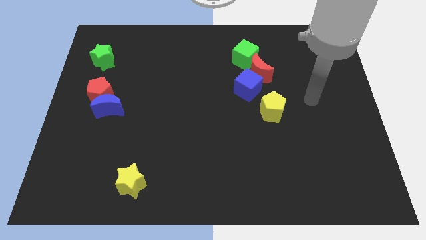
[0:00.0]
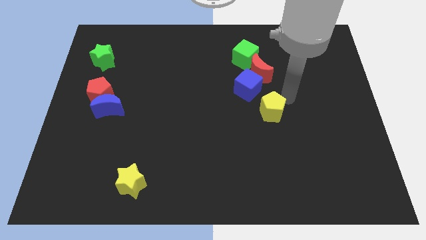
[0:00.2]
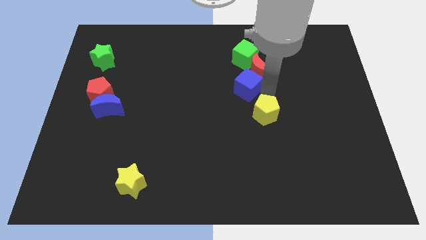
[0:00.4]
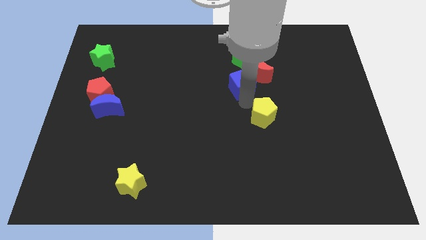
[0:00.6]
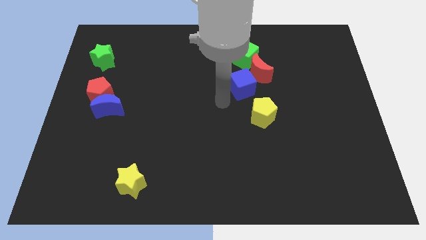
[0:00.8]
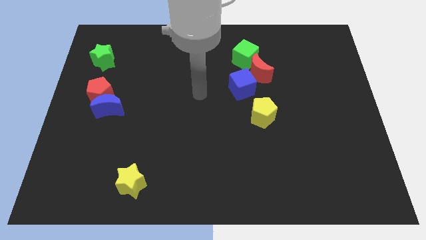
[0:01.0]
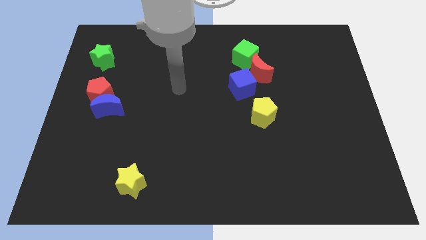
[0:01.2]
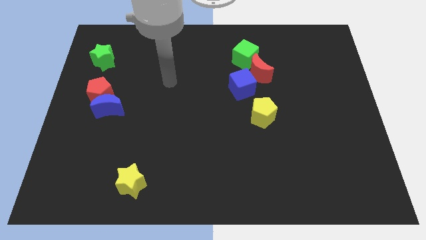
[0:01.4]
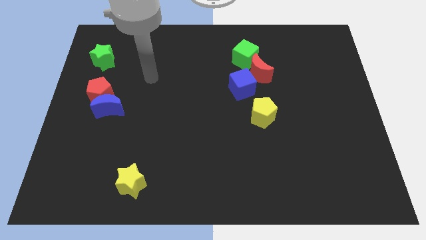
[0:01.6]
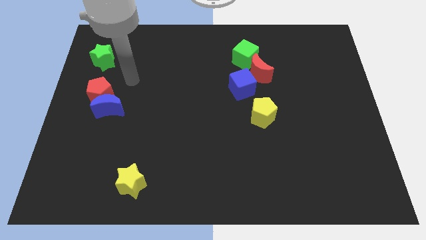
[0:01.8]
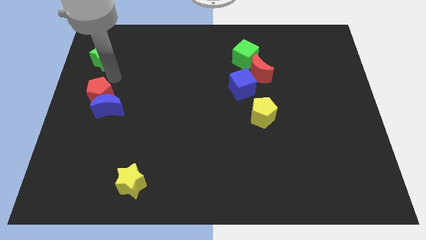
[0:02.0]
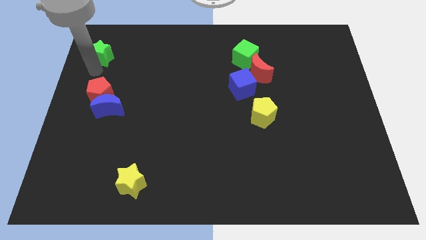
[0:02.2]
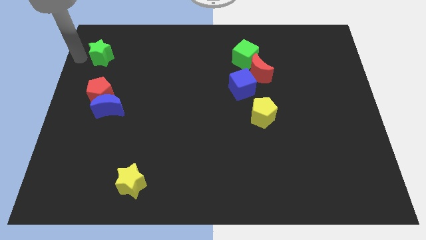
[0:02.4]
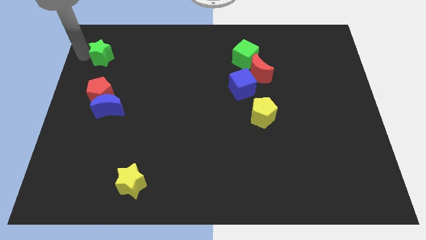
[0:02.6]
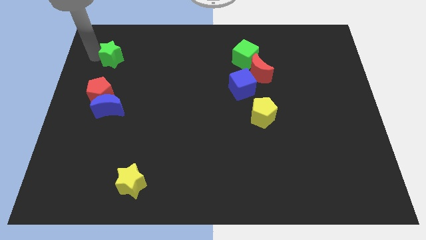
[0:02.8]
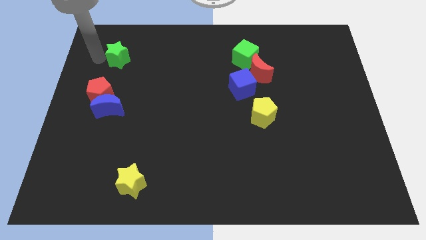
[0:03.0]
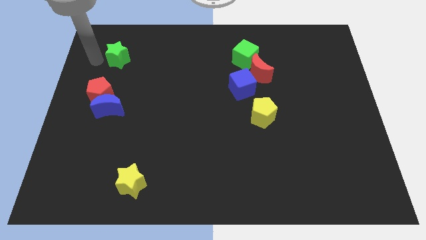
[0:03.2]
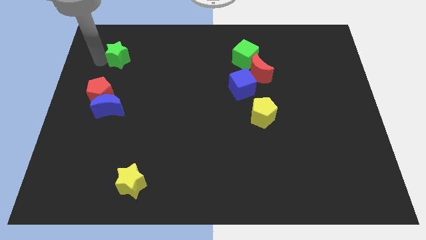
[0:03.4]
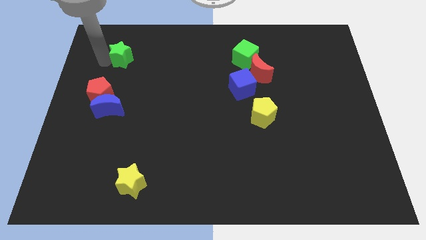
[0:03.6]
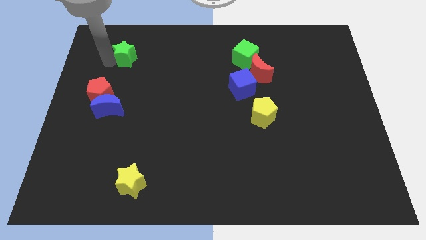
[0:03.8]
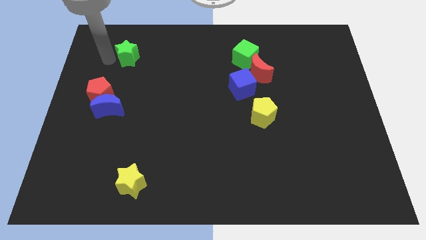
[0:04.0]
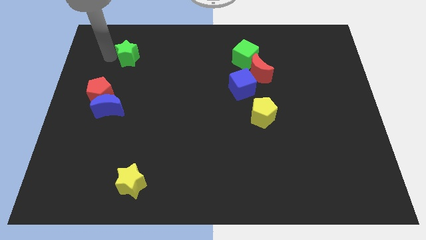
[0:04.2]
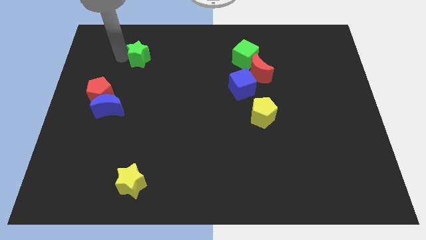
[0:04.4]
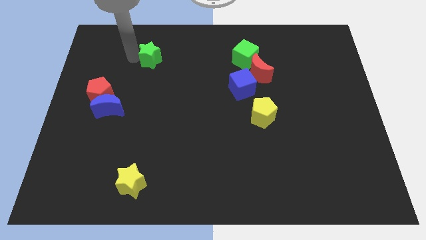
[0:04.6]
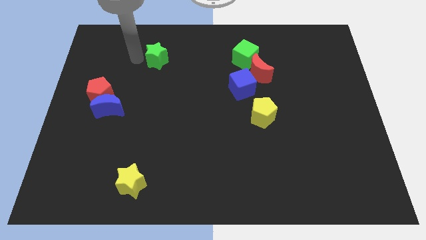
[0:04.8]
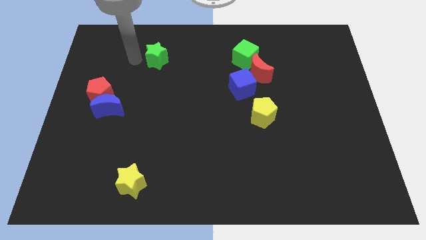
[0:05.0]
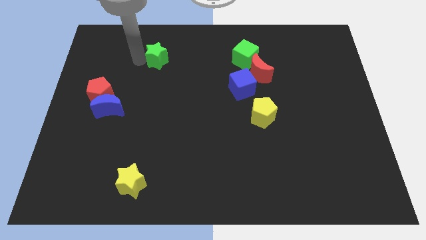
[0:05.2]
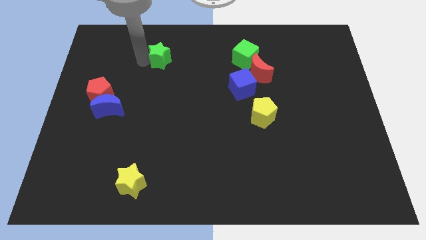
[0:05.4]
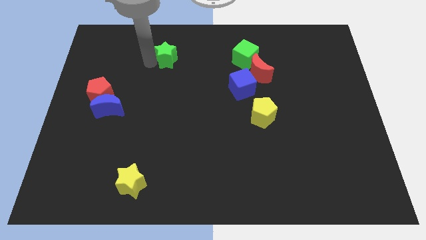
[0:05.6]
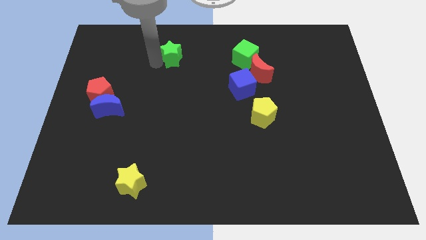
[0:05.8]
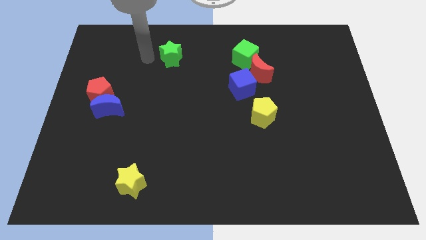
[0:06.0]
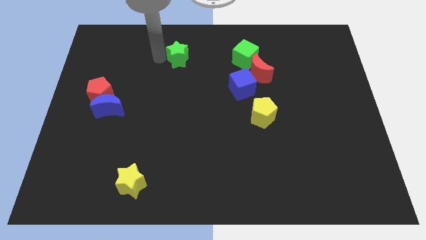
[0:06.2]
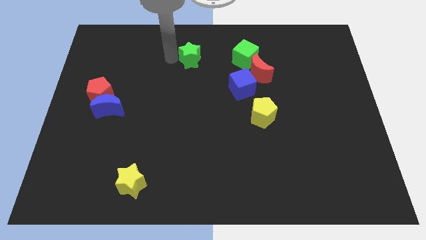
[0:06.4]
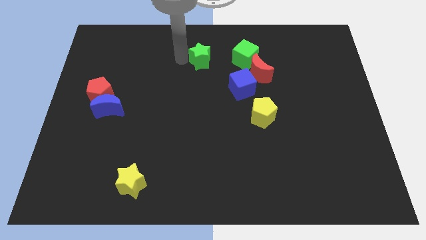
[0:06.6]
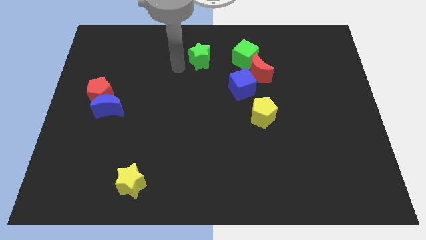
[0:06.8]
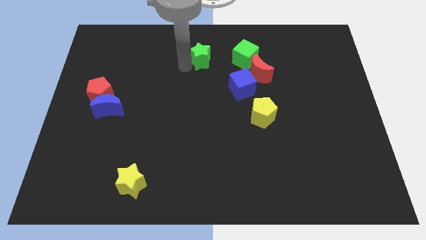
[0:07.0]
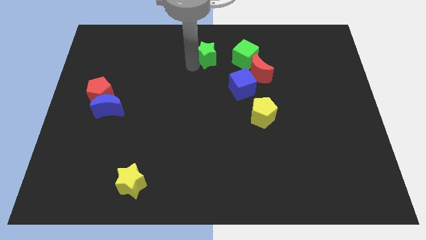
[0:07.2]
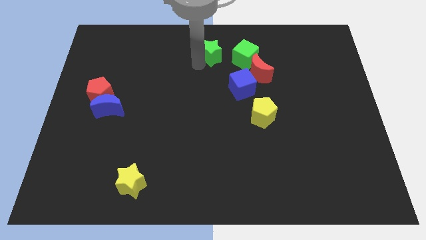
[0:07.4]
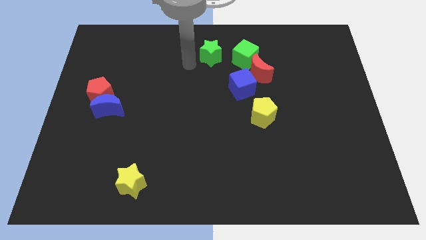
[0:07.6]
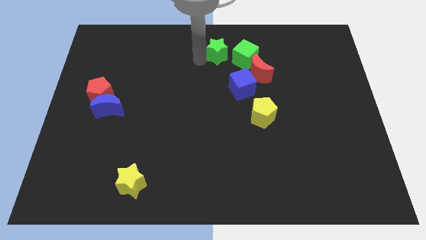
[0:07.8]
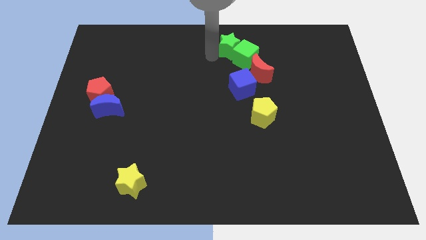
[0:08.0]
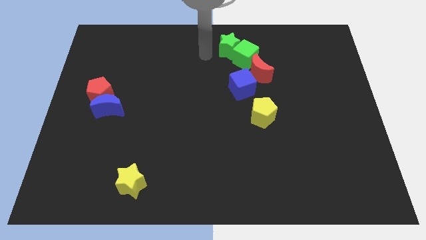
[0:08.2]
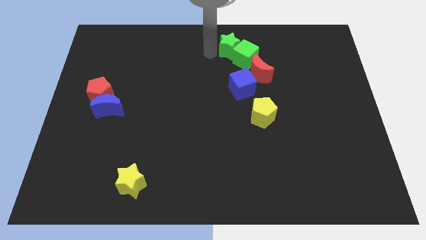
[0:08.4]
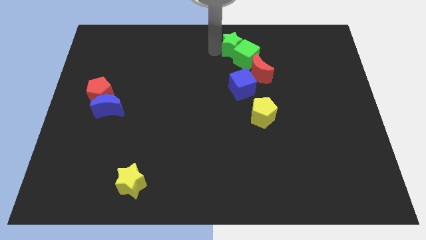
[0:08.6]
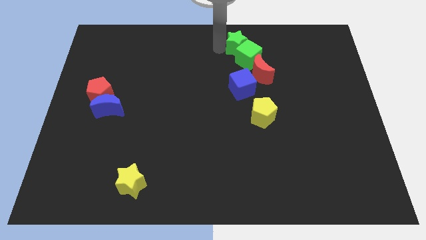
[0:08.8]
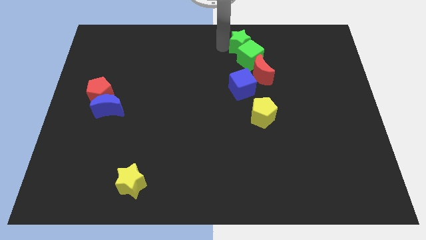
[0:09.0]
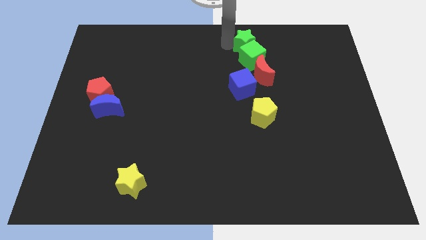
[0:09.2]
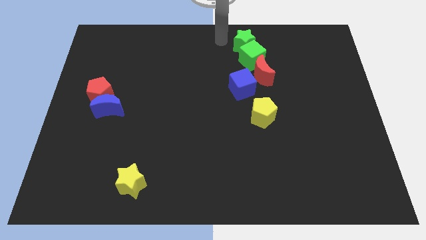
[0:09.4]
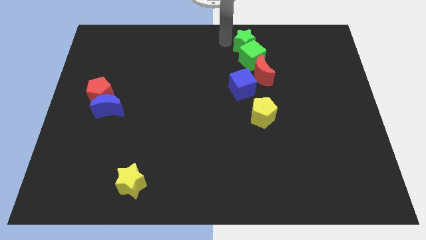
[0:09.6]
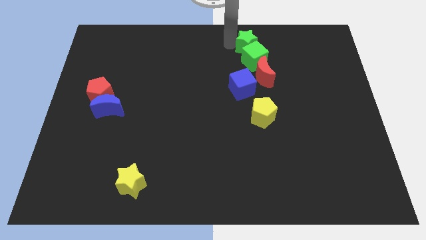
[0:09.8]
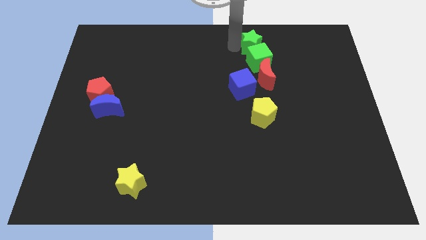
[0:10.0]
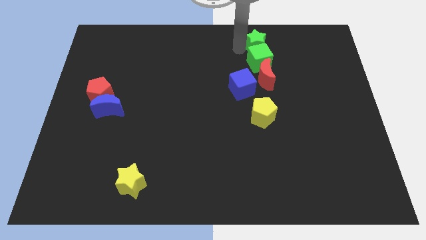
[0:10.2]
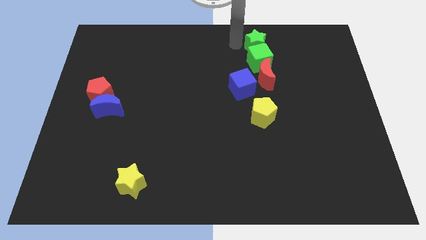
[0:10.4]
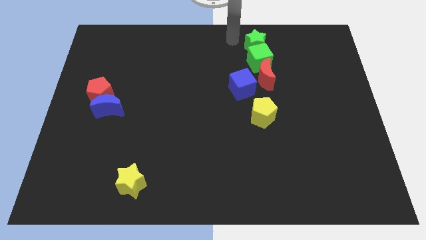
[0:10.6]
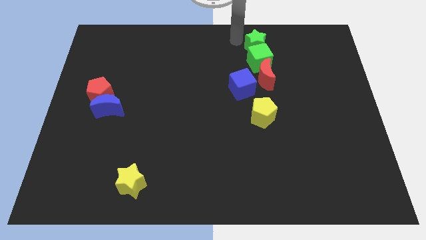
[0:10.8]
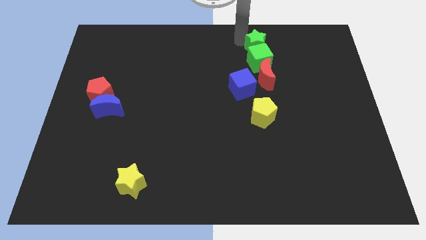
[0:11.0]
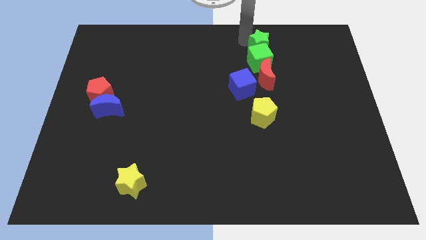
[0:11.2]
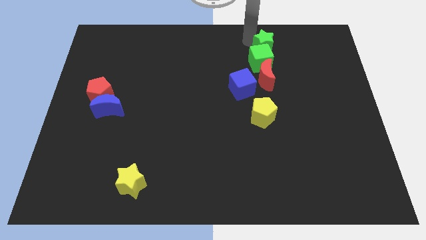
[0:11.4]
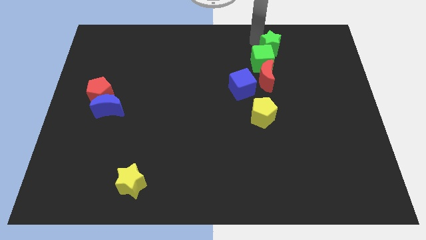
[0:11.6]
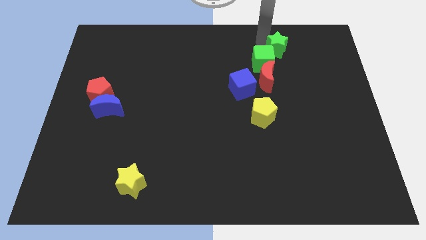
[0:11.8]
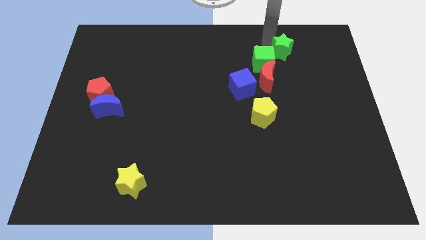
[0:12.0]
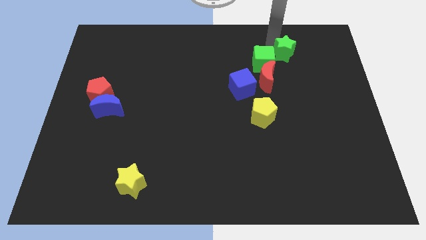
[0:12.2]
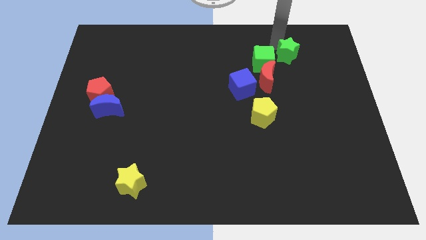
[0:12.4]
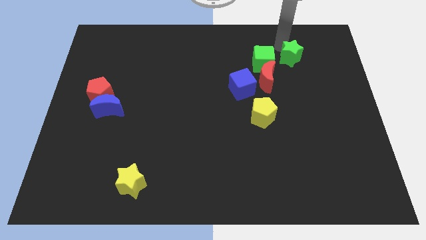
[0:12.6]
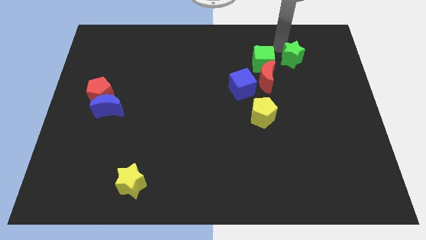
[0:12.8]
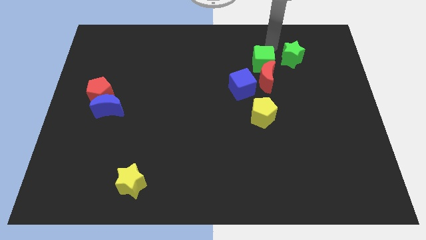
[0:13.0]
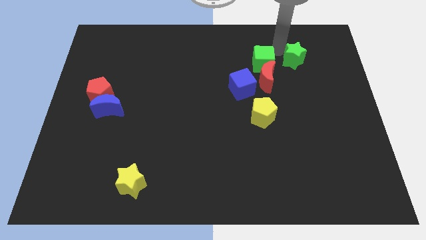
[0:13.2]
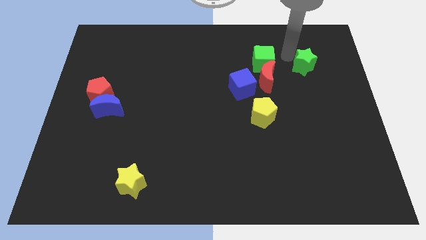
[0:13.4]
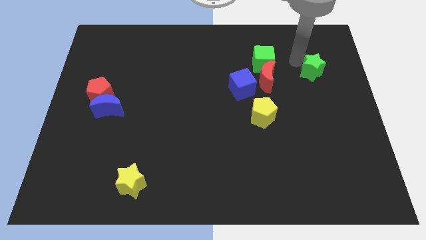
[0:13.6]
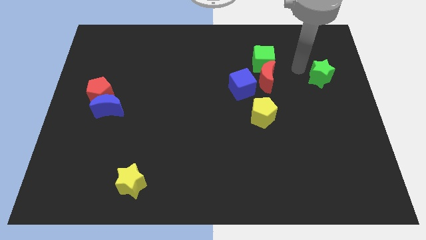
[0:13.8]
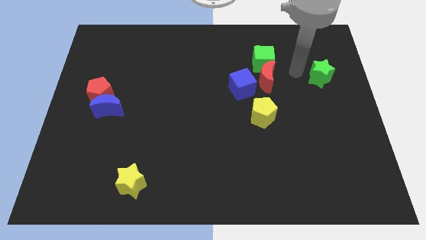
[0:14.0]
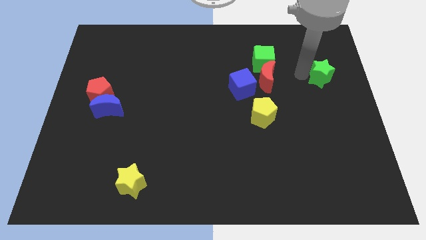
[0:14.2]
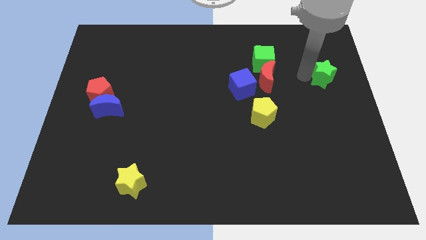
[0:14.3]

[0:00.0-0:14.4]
move the green star to the center right
